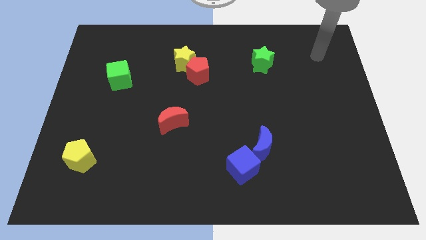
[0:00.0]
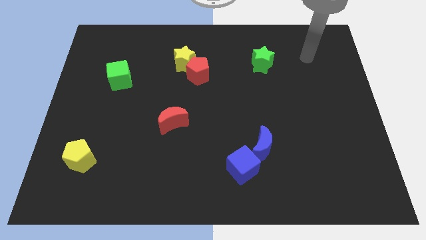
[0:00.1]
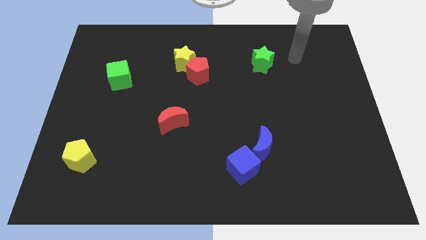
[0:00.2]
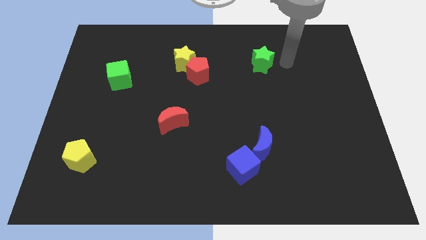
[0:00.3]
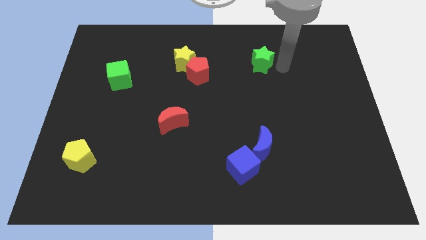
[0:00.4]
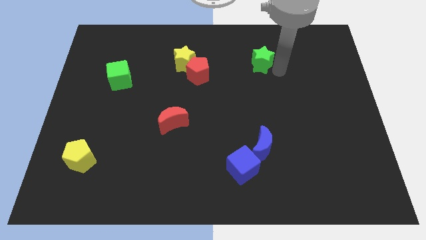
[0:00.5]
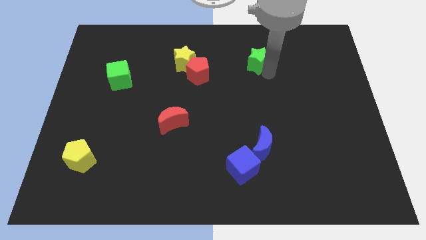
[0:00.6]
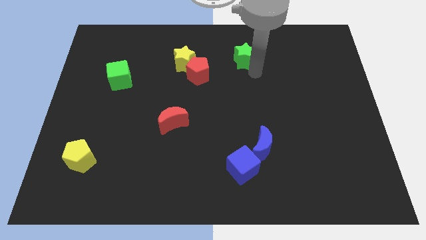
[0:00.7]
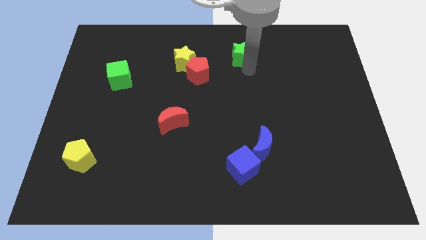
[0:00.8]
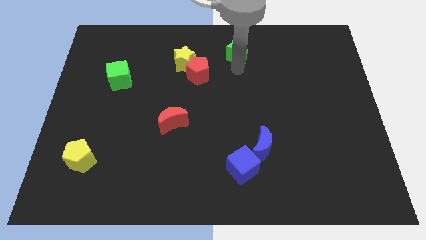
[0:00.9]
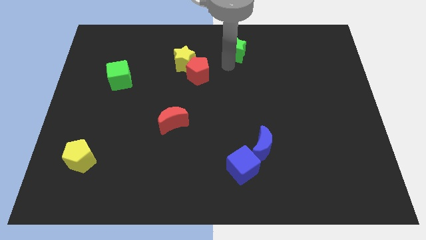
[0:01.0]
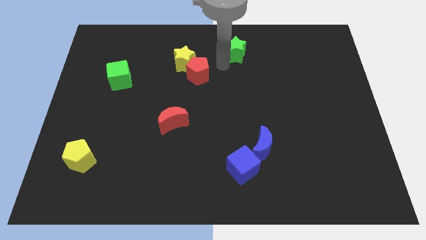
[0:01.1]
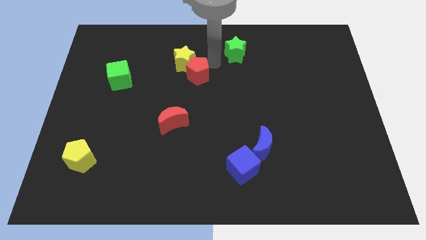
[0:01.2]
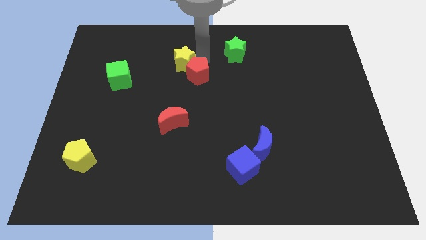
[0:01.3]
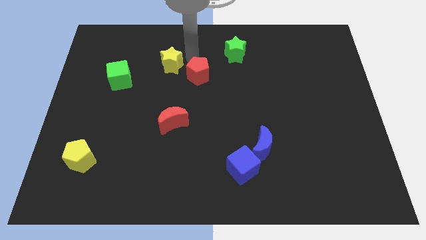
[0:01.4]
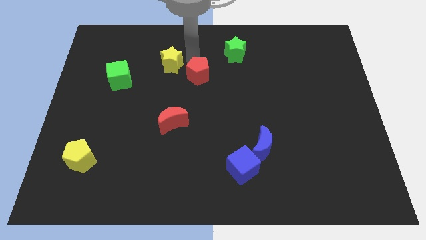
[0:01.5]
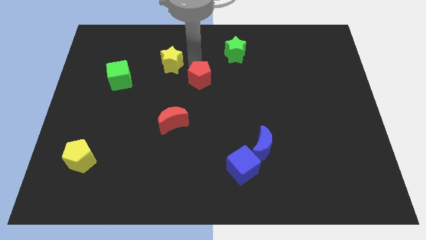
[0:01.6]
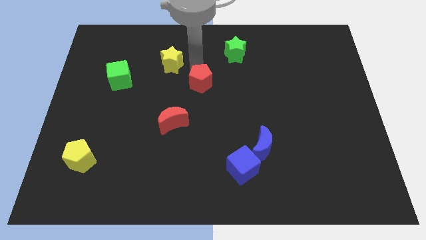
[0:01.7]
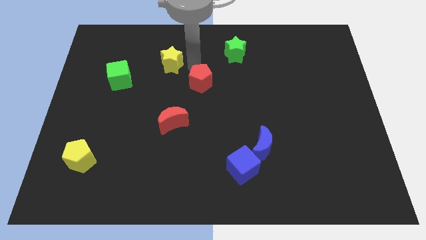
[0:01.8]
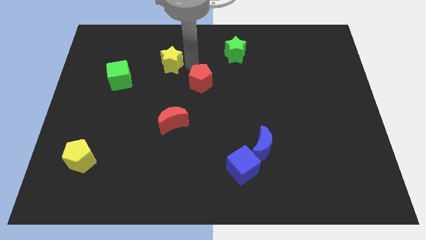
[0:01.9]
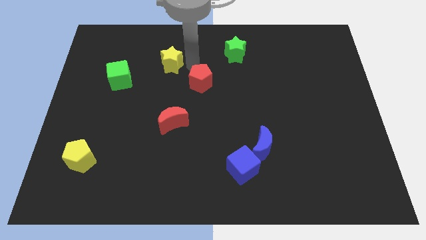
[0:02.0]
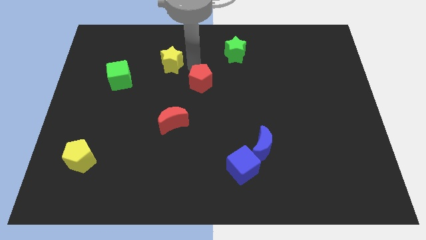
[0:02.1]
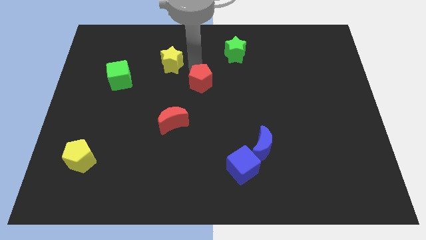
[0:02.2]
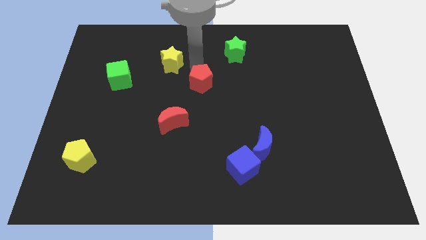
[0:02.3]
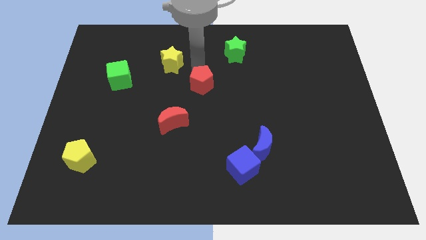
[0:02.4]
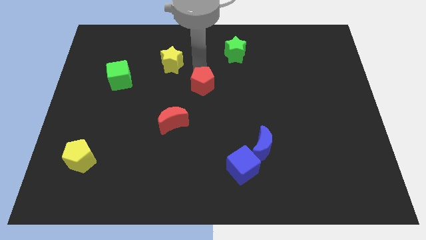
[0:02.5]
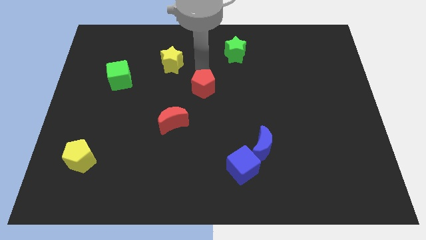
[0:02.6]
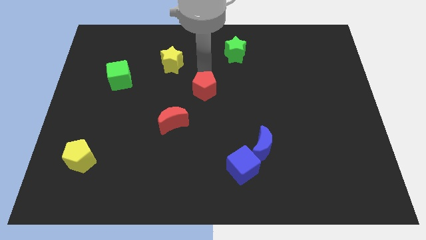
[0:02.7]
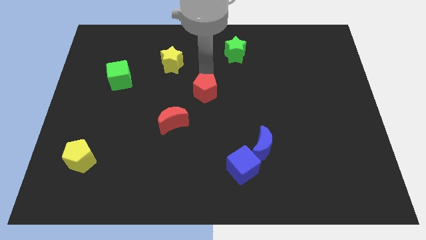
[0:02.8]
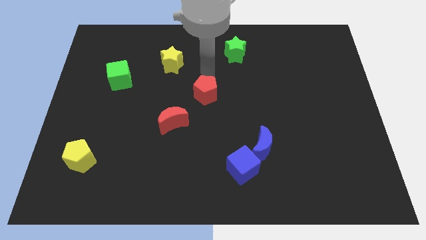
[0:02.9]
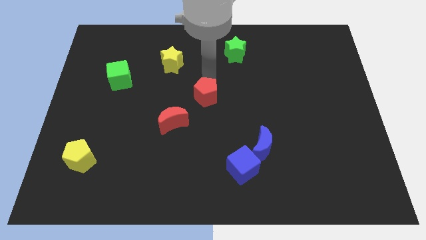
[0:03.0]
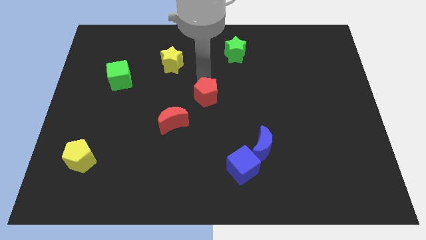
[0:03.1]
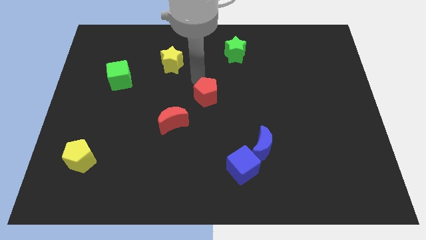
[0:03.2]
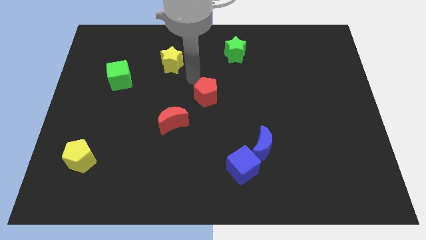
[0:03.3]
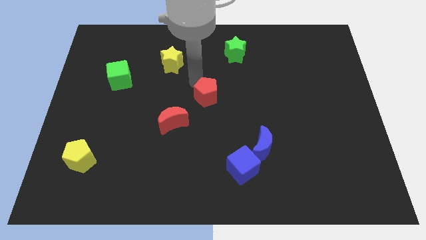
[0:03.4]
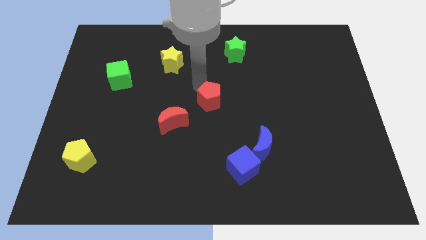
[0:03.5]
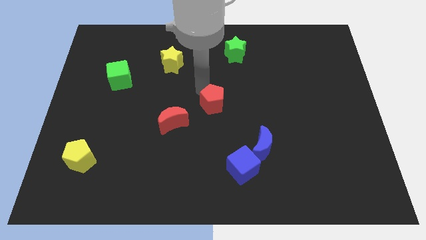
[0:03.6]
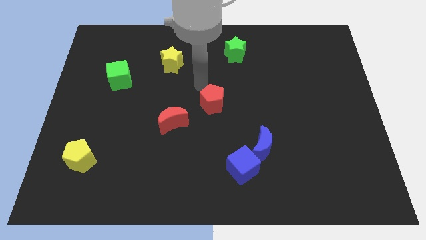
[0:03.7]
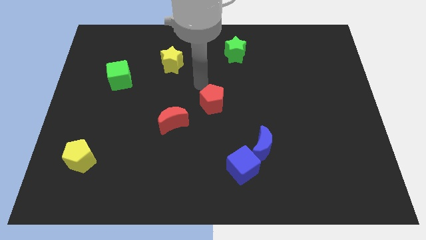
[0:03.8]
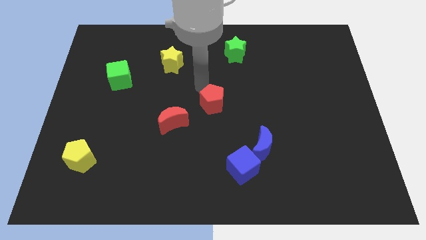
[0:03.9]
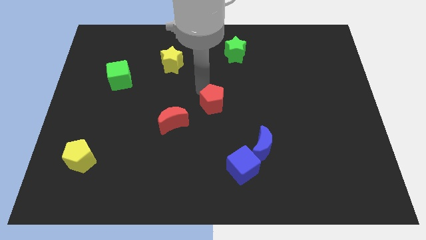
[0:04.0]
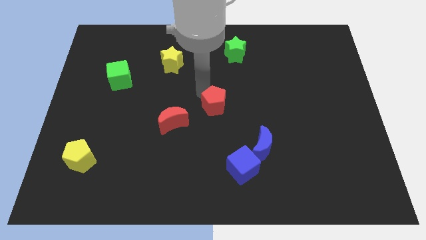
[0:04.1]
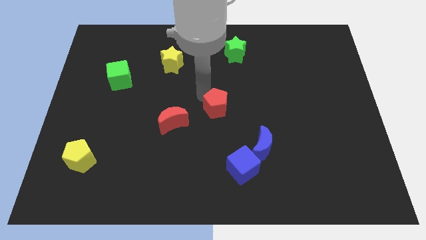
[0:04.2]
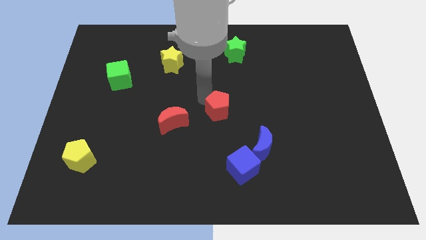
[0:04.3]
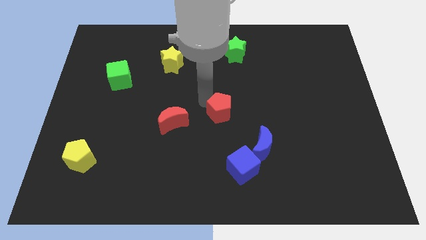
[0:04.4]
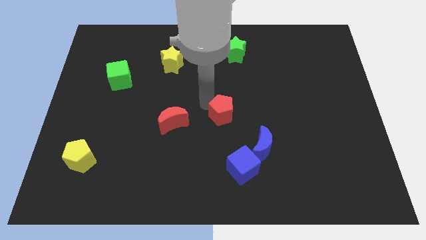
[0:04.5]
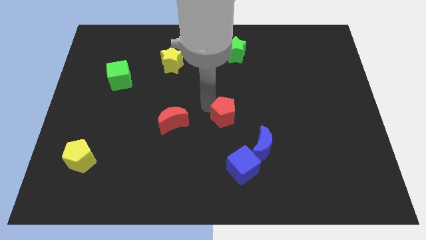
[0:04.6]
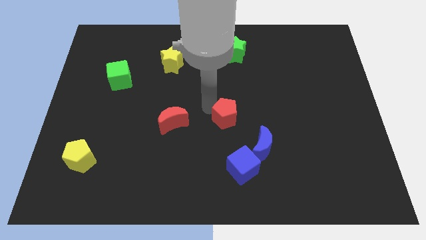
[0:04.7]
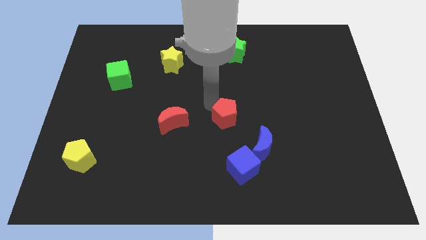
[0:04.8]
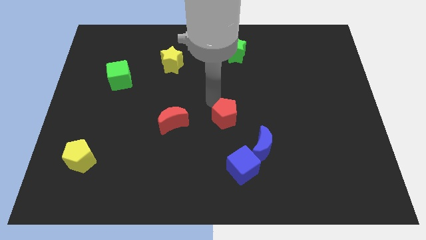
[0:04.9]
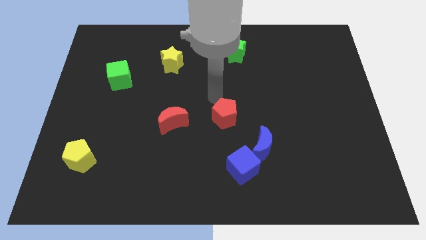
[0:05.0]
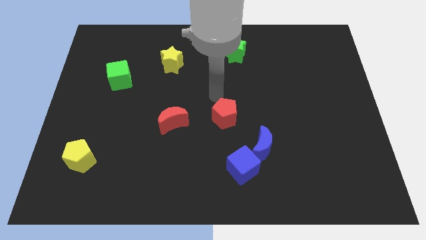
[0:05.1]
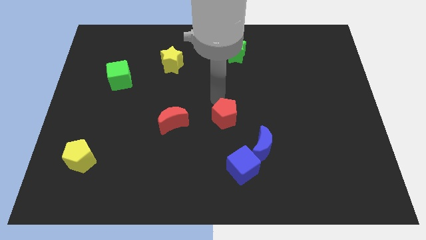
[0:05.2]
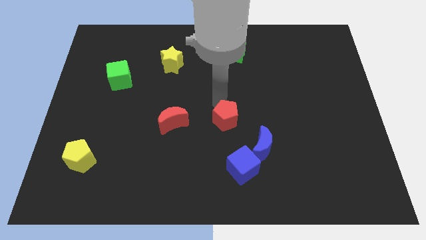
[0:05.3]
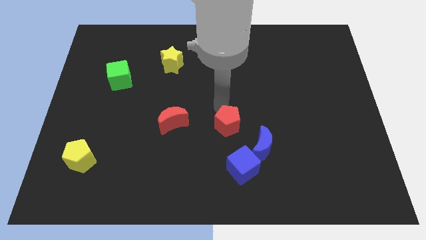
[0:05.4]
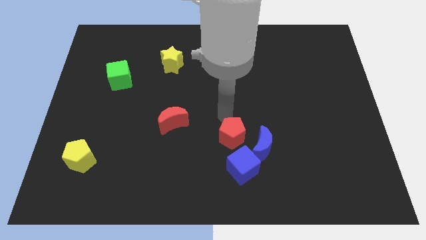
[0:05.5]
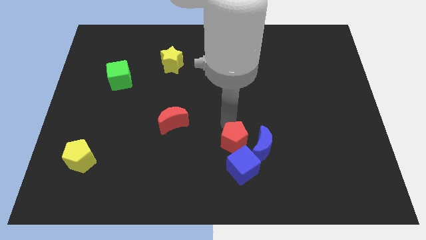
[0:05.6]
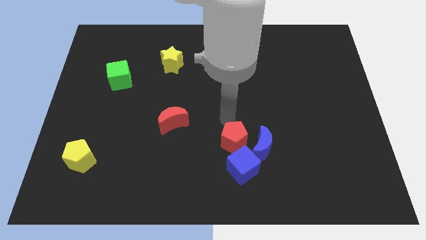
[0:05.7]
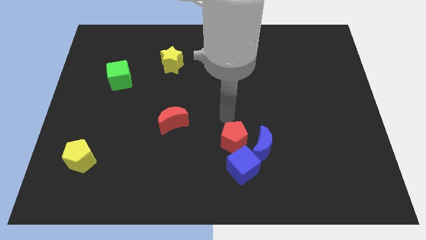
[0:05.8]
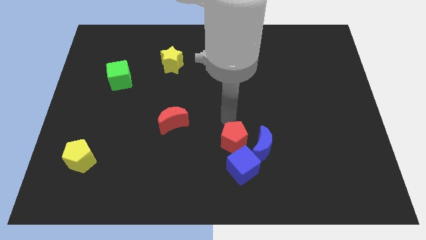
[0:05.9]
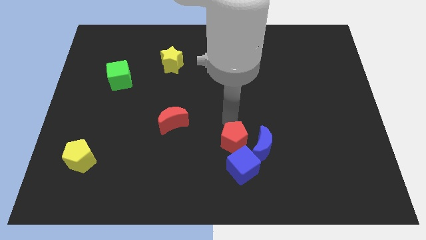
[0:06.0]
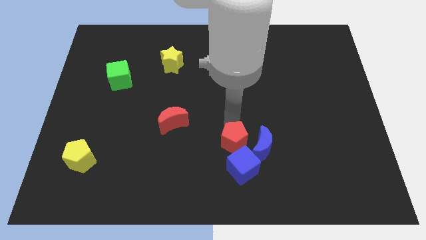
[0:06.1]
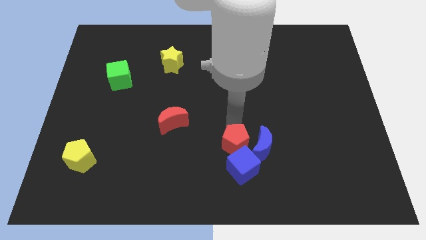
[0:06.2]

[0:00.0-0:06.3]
put the red pentagon to the blue cube

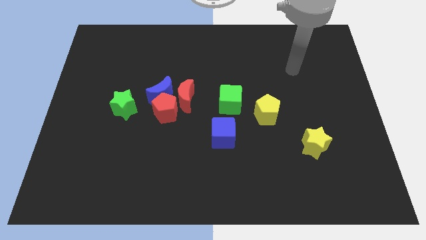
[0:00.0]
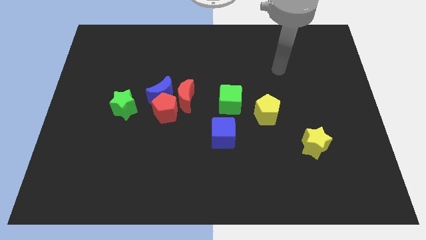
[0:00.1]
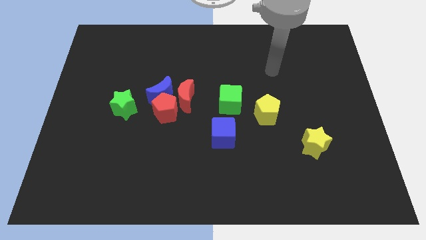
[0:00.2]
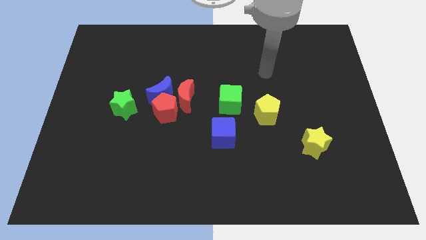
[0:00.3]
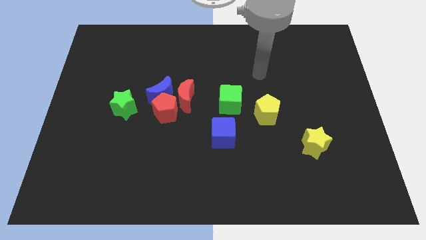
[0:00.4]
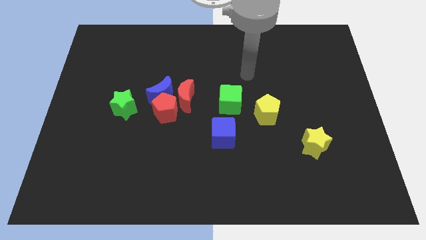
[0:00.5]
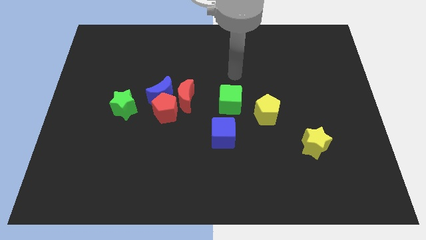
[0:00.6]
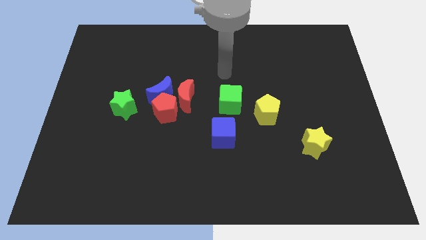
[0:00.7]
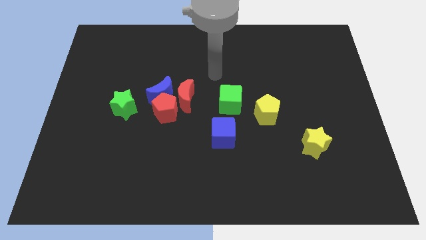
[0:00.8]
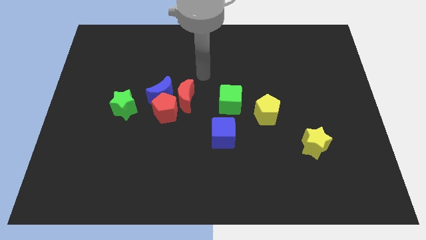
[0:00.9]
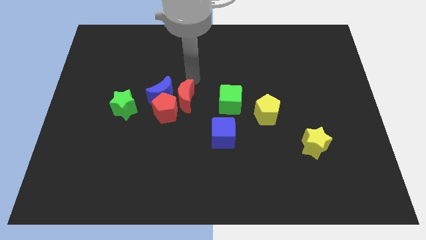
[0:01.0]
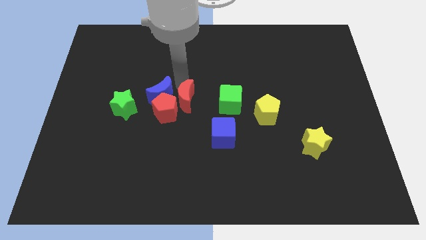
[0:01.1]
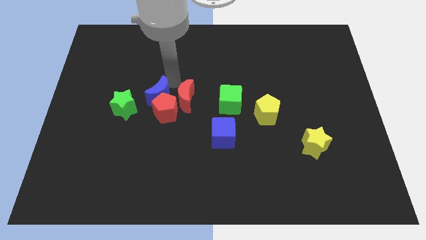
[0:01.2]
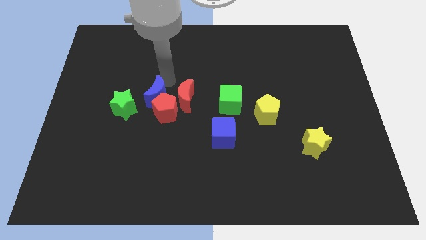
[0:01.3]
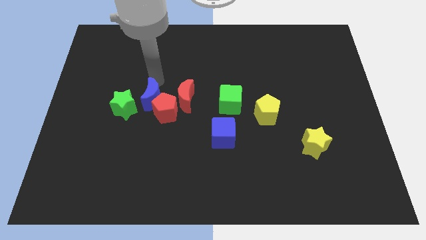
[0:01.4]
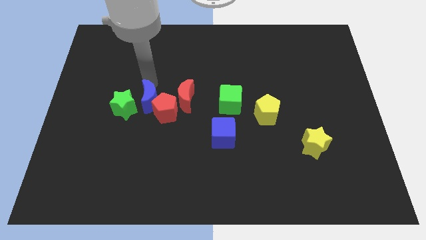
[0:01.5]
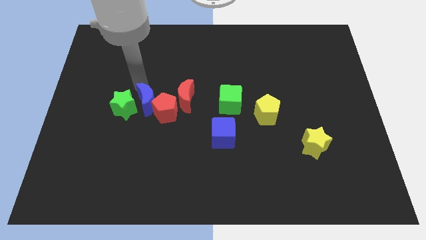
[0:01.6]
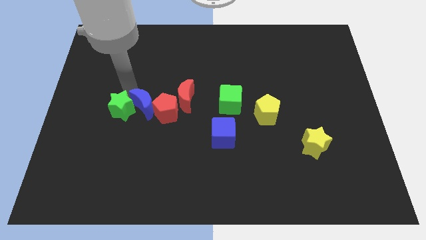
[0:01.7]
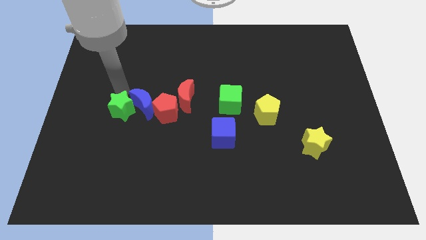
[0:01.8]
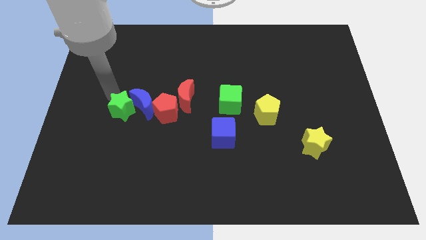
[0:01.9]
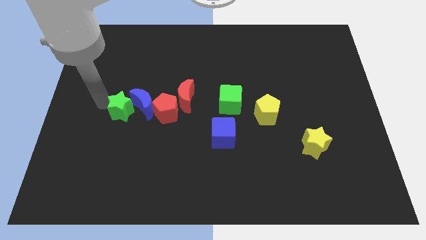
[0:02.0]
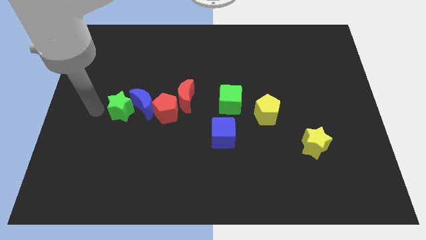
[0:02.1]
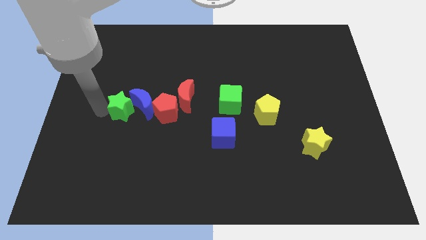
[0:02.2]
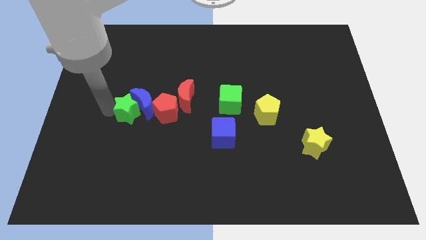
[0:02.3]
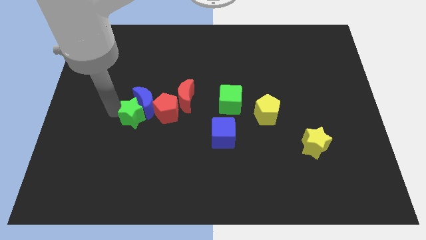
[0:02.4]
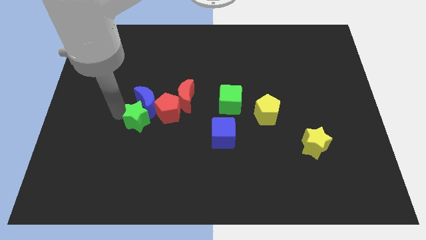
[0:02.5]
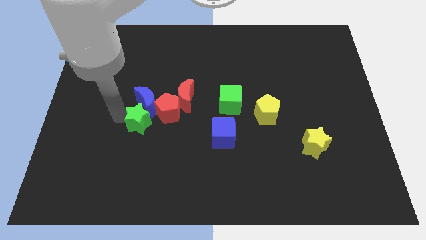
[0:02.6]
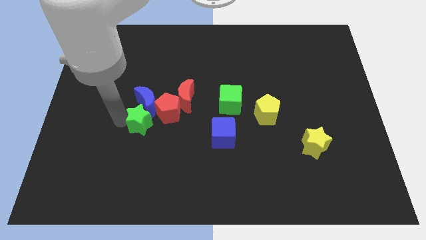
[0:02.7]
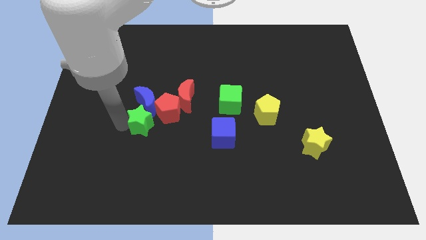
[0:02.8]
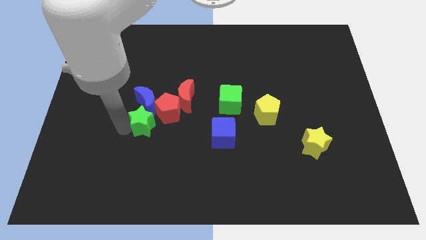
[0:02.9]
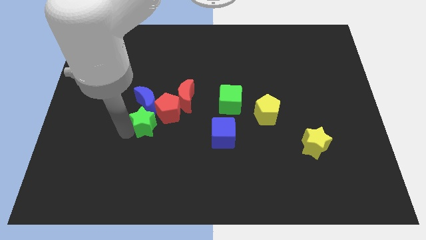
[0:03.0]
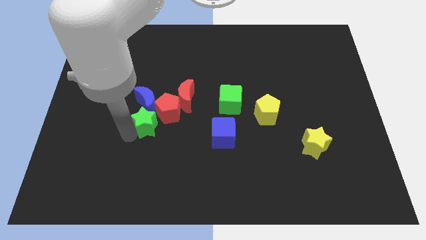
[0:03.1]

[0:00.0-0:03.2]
slide the green star towards the red pentagon
